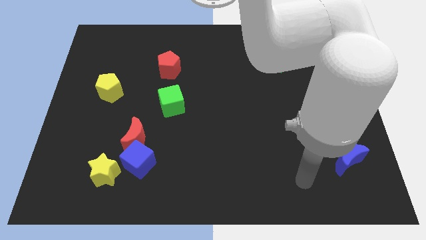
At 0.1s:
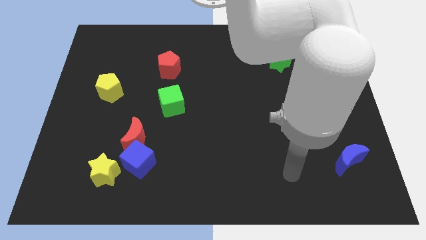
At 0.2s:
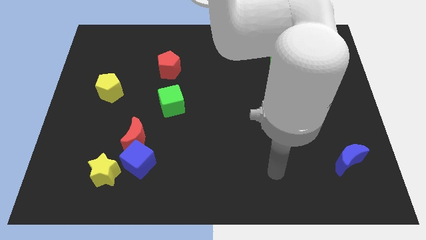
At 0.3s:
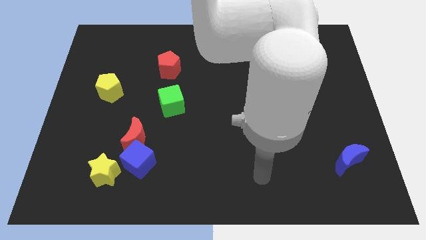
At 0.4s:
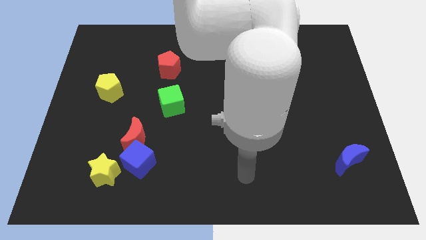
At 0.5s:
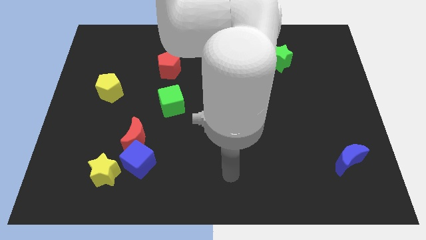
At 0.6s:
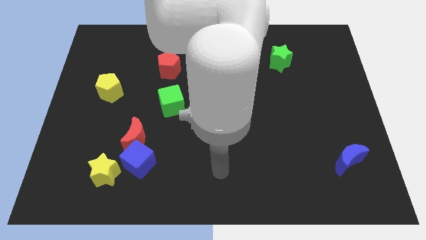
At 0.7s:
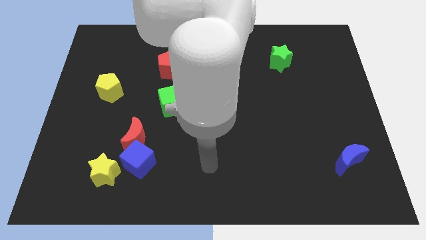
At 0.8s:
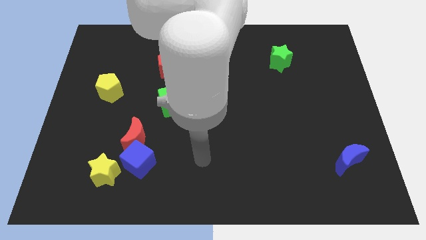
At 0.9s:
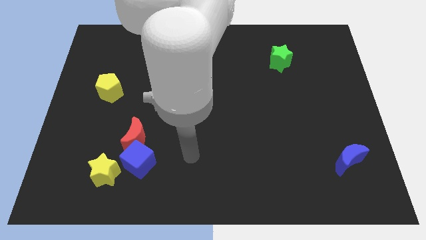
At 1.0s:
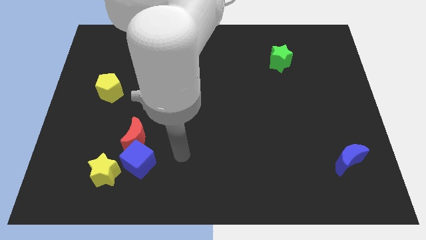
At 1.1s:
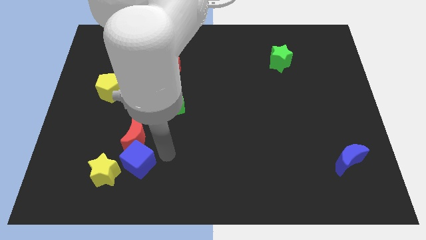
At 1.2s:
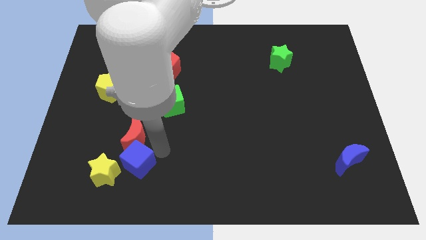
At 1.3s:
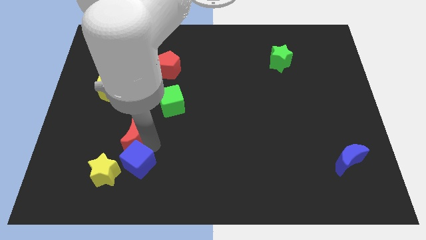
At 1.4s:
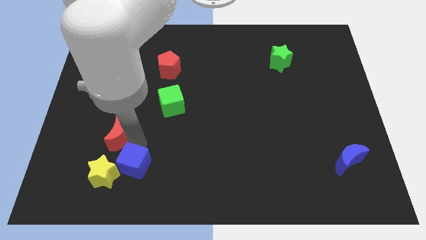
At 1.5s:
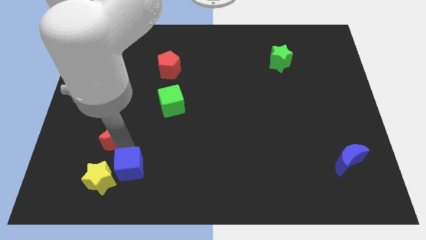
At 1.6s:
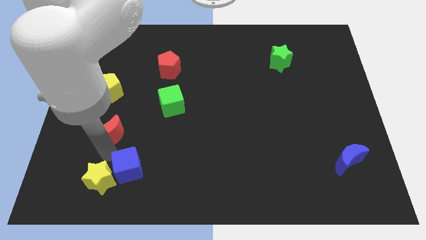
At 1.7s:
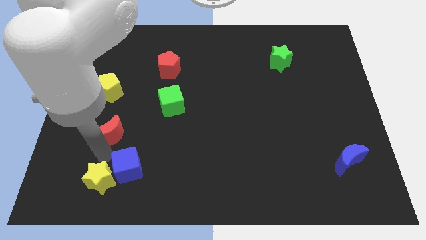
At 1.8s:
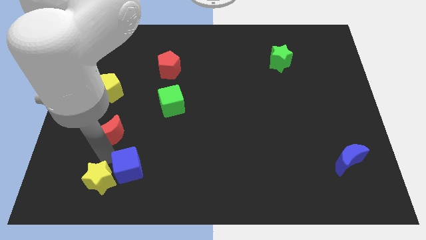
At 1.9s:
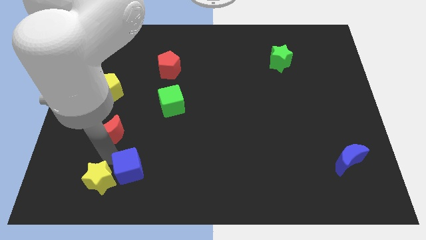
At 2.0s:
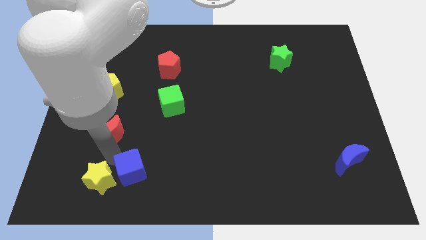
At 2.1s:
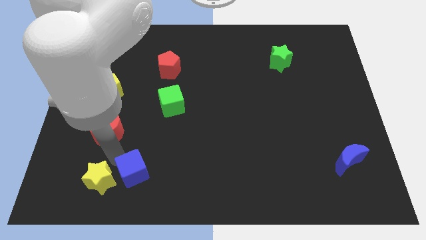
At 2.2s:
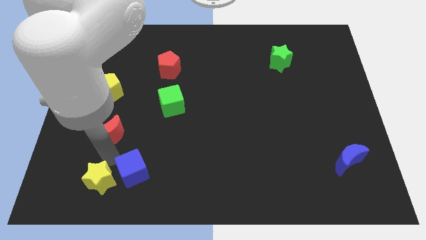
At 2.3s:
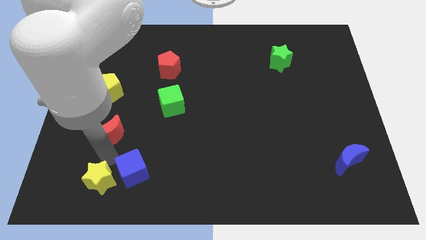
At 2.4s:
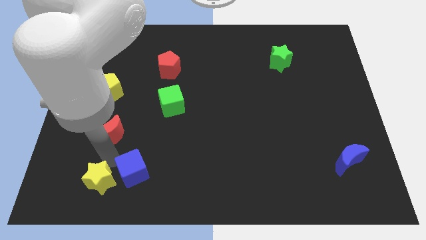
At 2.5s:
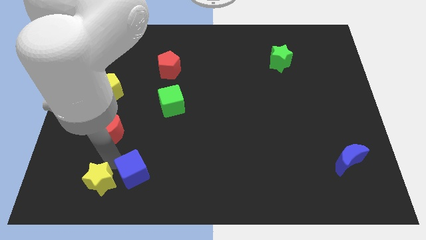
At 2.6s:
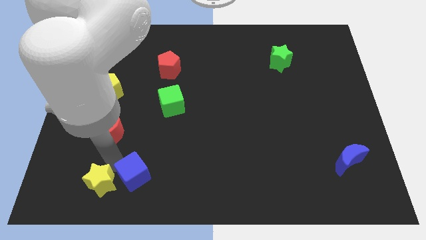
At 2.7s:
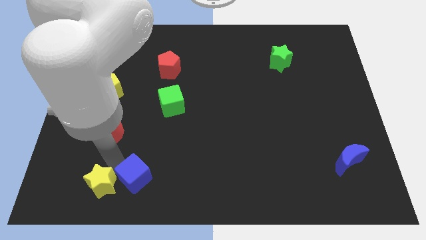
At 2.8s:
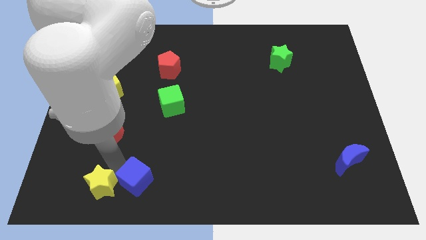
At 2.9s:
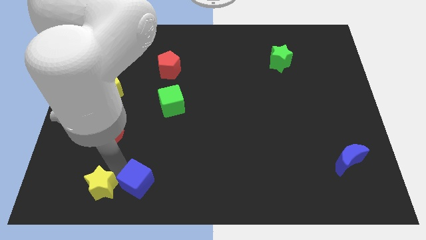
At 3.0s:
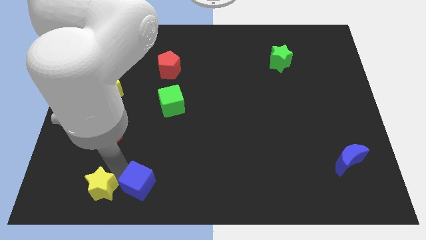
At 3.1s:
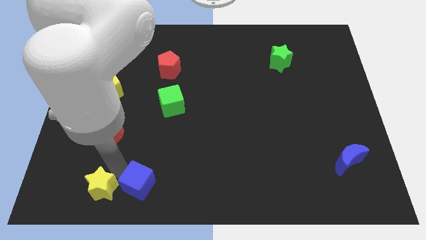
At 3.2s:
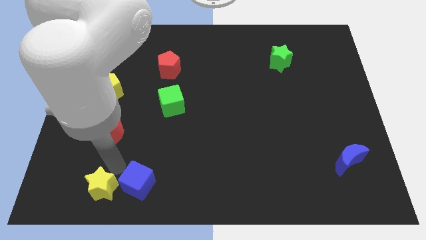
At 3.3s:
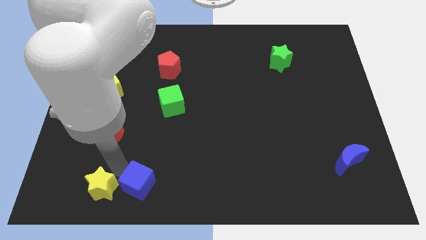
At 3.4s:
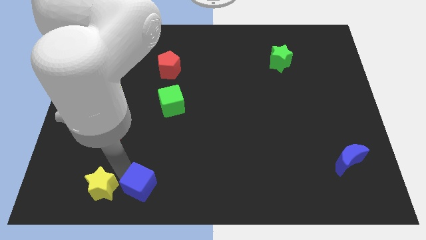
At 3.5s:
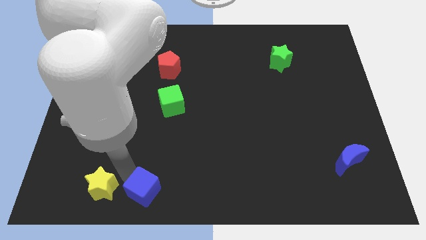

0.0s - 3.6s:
pull the blue cube apart from the red moon and yellow star

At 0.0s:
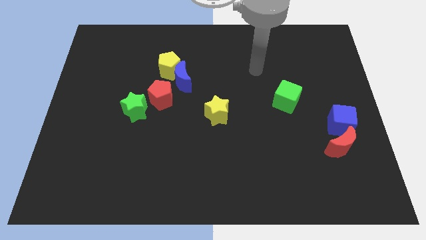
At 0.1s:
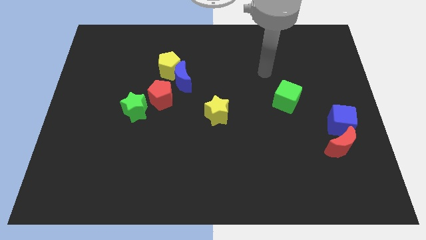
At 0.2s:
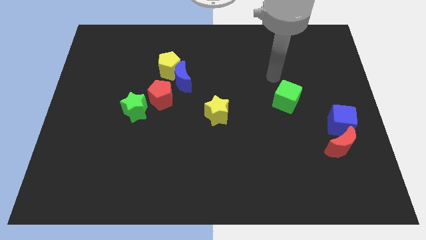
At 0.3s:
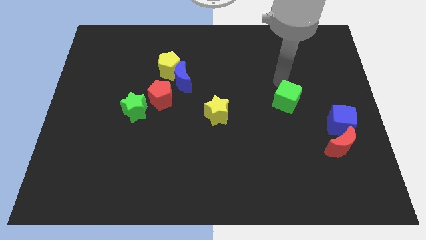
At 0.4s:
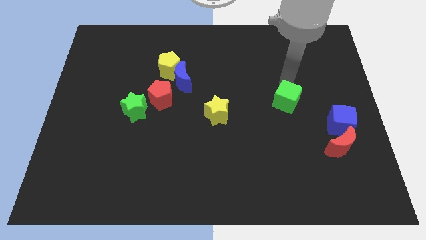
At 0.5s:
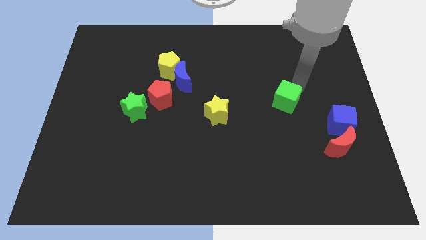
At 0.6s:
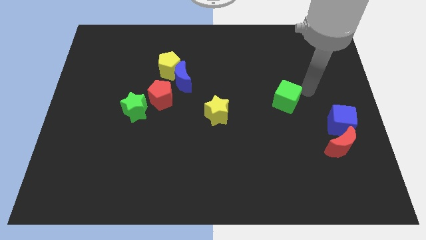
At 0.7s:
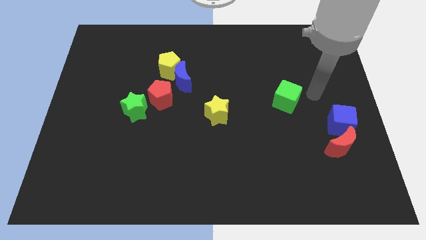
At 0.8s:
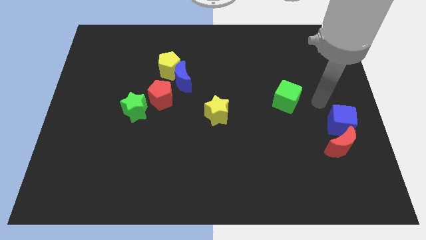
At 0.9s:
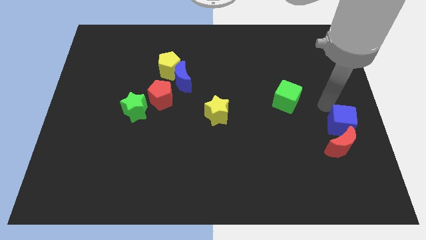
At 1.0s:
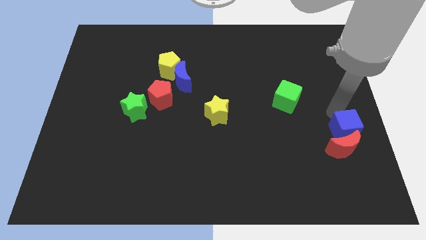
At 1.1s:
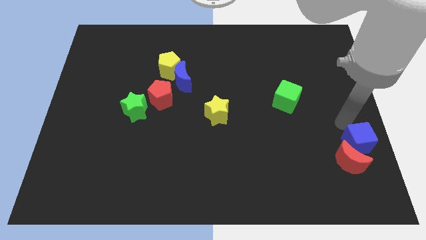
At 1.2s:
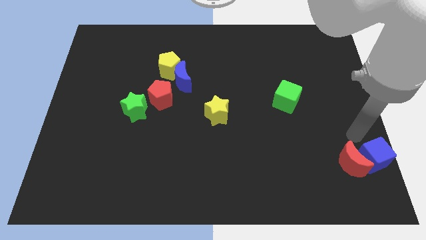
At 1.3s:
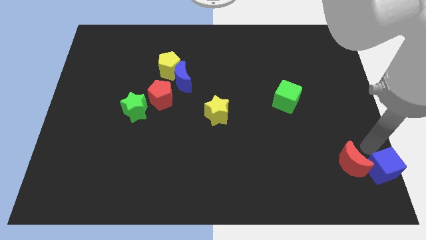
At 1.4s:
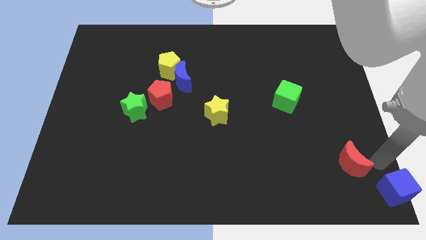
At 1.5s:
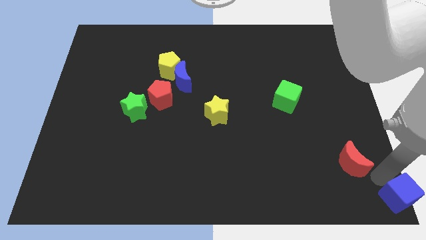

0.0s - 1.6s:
separate the red moon from the blue cube

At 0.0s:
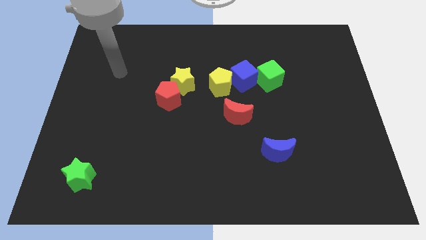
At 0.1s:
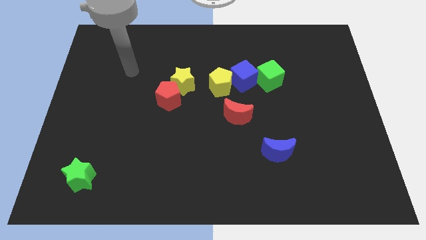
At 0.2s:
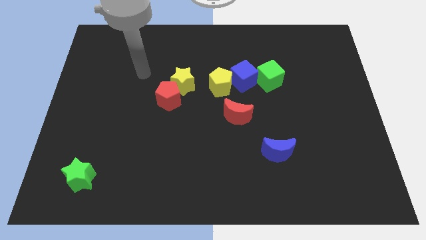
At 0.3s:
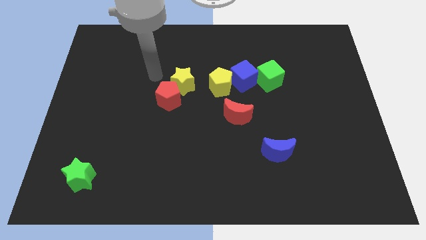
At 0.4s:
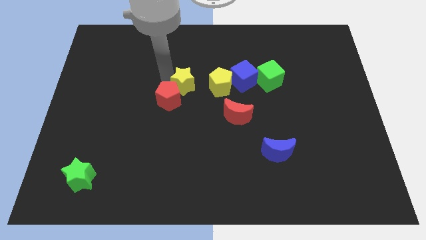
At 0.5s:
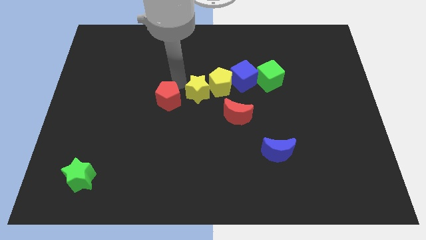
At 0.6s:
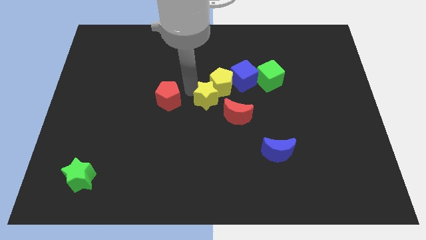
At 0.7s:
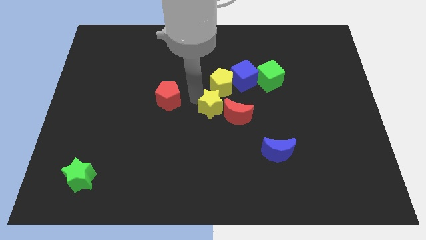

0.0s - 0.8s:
move the red pentagon away from the yellow star

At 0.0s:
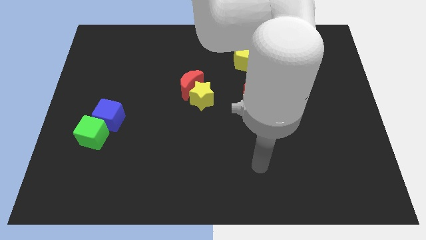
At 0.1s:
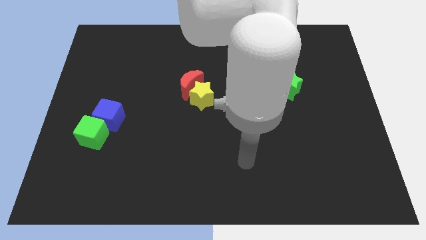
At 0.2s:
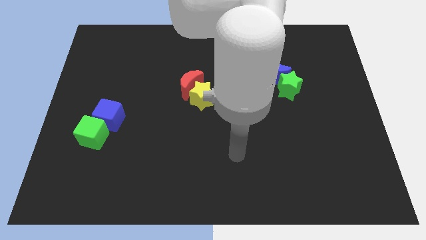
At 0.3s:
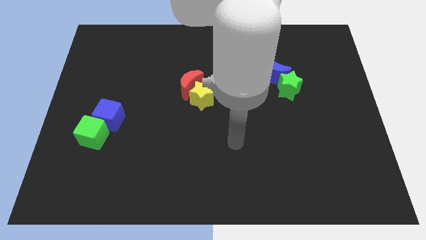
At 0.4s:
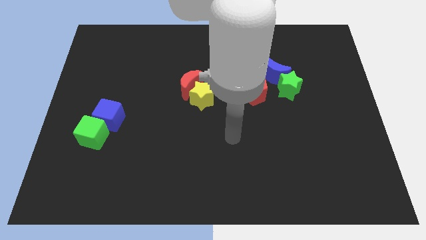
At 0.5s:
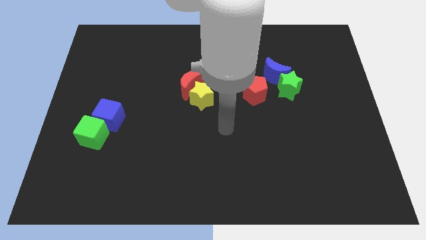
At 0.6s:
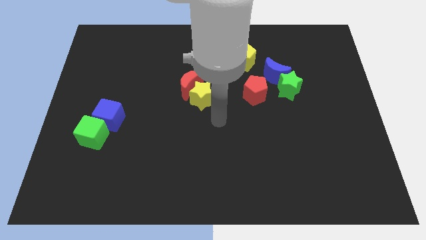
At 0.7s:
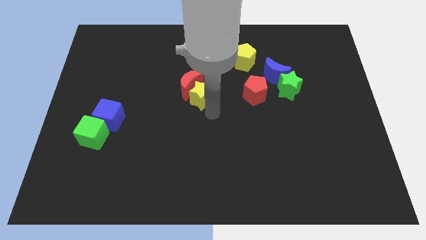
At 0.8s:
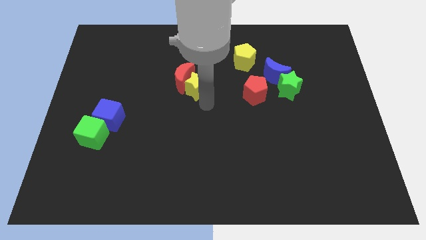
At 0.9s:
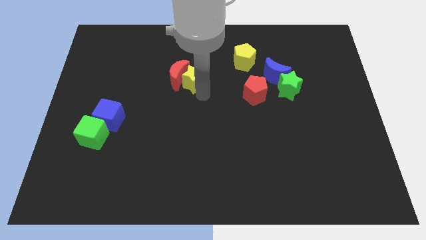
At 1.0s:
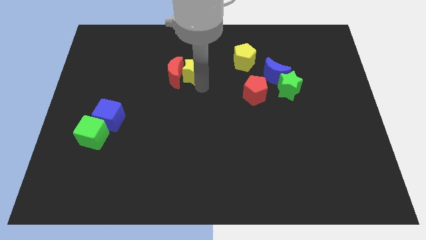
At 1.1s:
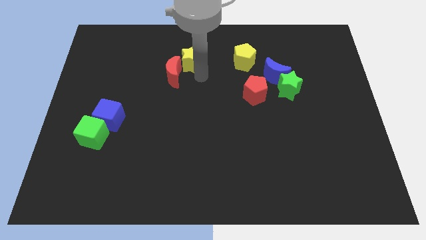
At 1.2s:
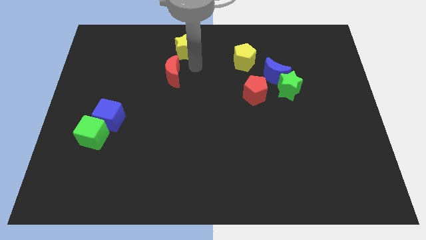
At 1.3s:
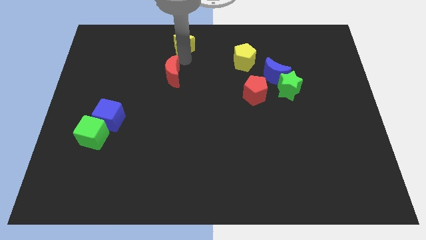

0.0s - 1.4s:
separate the red moon from the yellow star

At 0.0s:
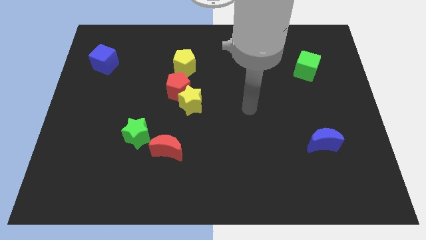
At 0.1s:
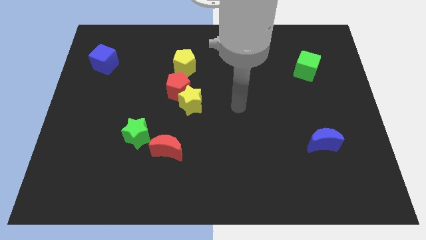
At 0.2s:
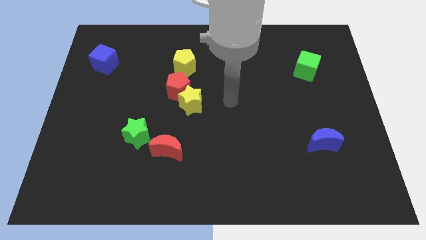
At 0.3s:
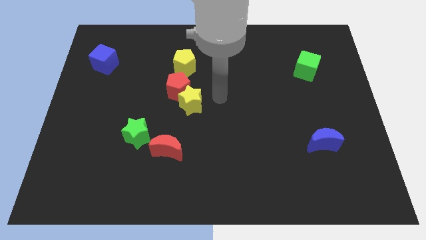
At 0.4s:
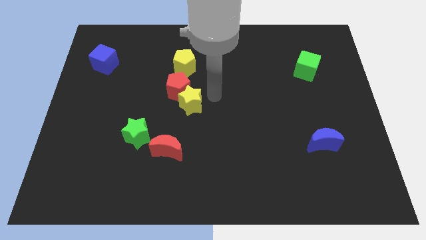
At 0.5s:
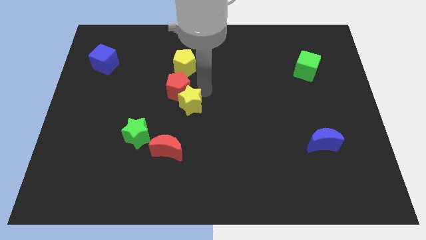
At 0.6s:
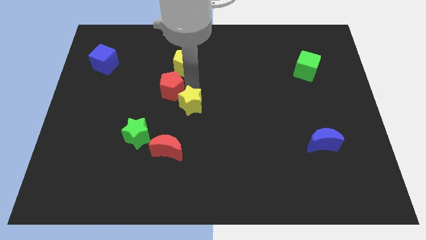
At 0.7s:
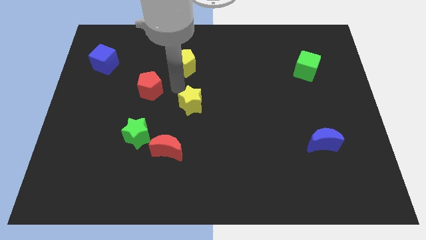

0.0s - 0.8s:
pull the yellow star apart from the red pentagon

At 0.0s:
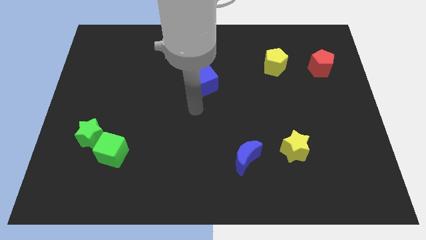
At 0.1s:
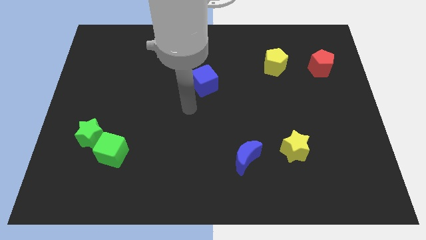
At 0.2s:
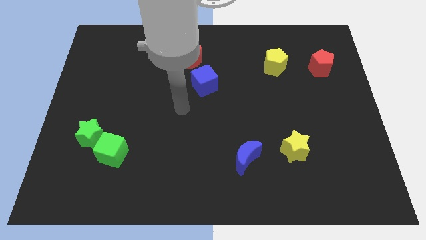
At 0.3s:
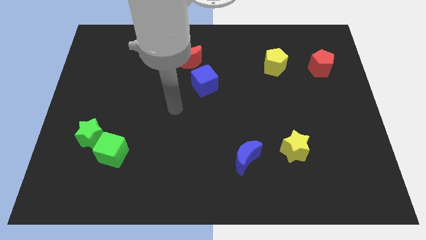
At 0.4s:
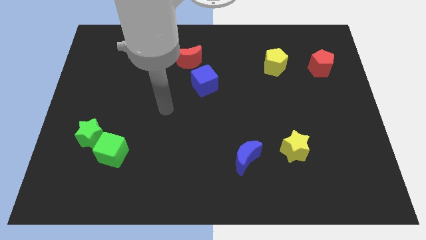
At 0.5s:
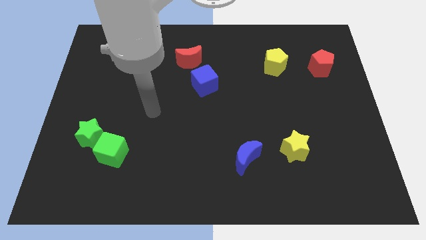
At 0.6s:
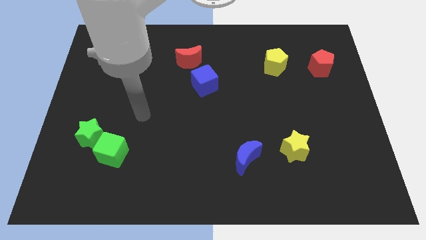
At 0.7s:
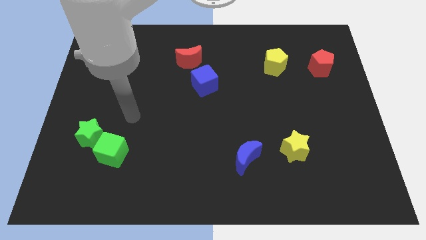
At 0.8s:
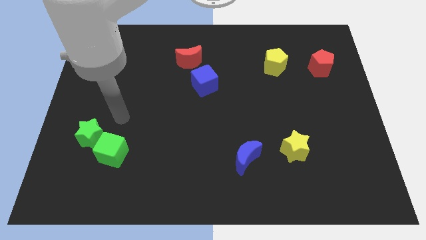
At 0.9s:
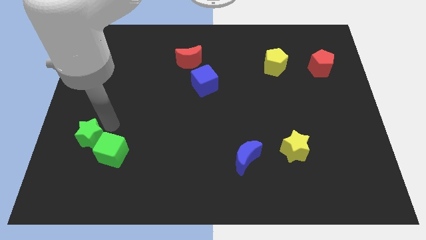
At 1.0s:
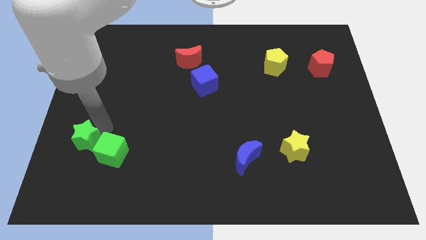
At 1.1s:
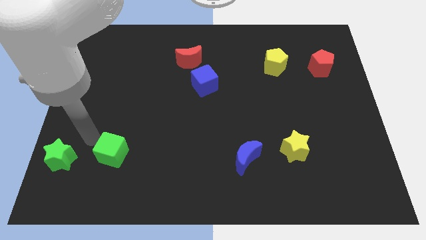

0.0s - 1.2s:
pull the green cube apart from the green star
